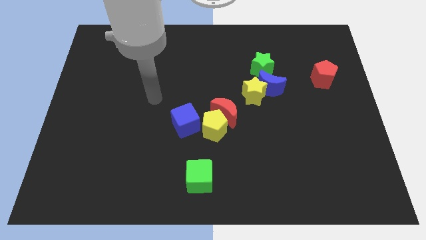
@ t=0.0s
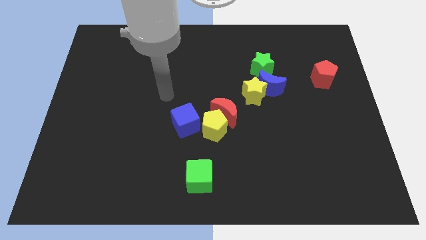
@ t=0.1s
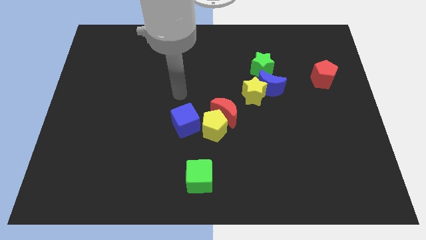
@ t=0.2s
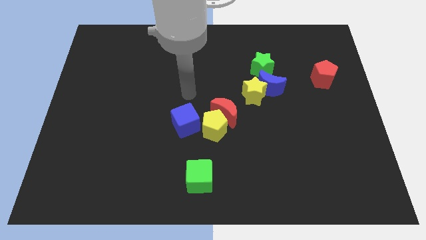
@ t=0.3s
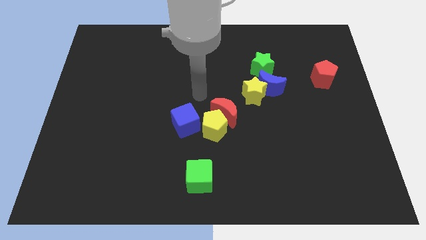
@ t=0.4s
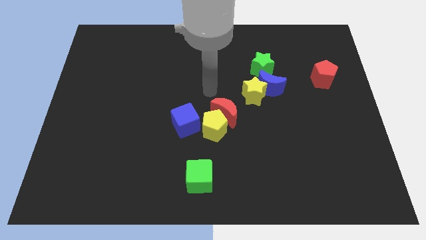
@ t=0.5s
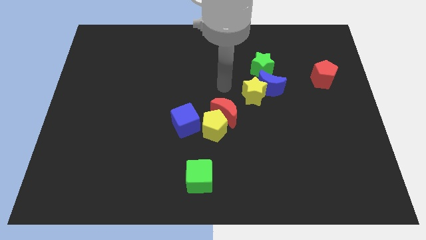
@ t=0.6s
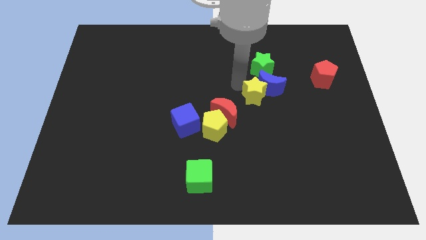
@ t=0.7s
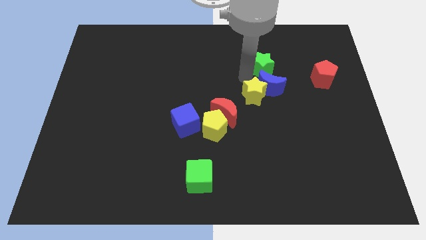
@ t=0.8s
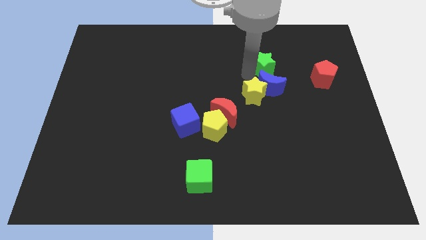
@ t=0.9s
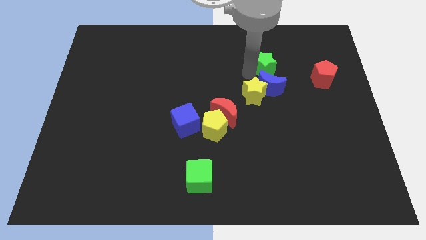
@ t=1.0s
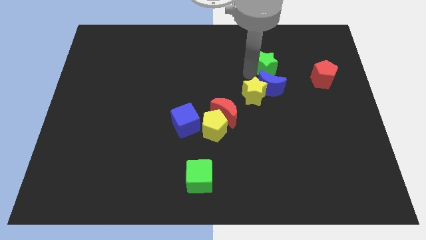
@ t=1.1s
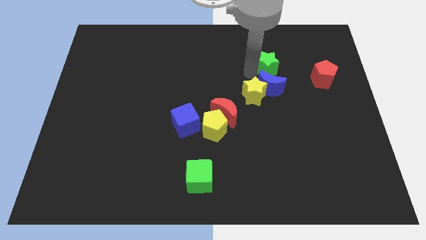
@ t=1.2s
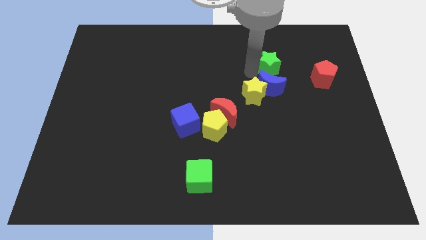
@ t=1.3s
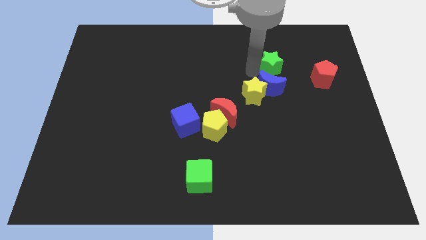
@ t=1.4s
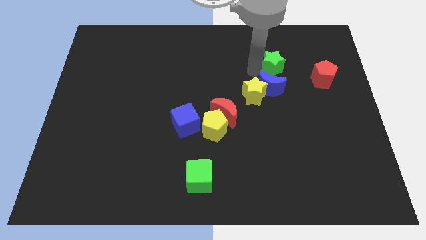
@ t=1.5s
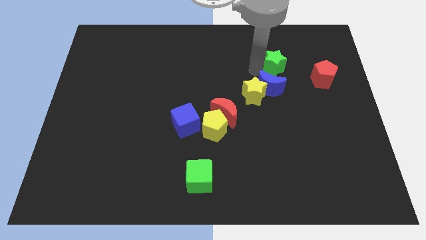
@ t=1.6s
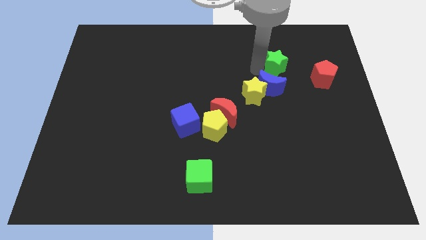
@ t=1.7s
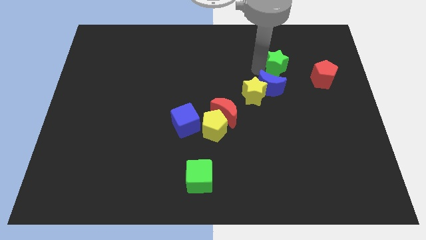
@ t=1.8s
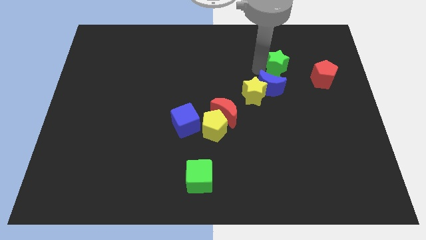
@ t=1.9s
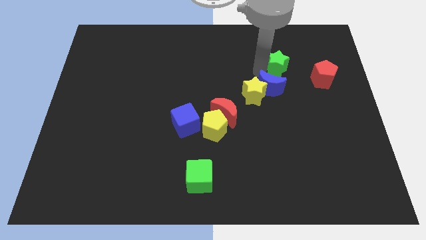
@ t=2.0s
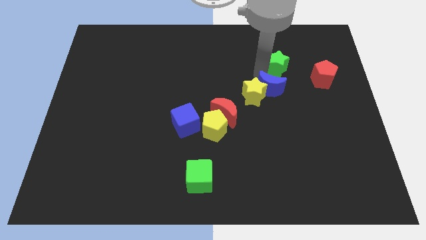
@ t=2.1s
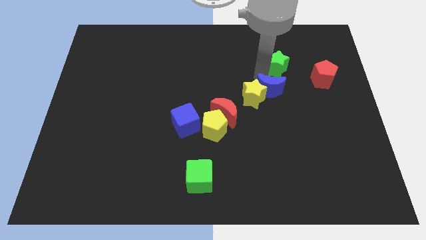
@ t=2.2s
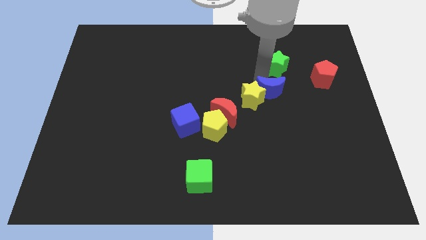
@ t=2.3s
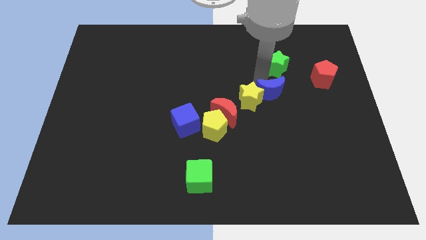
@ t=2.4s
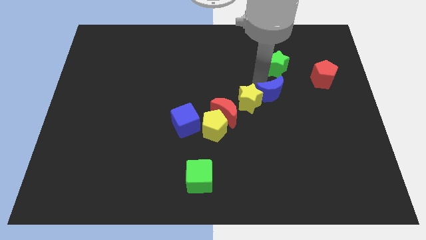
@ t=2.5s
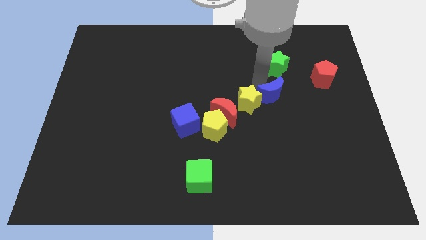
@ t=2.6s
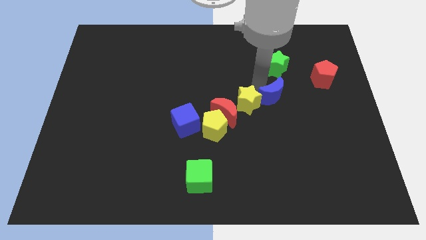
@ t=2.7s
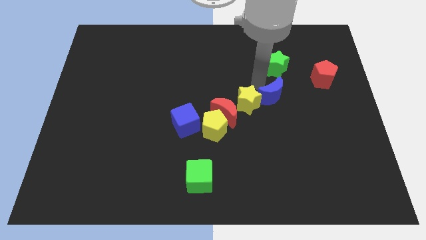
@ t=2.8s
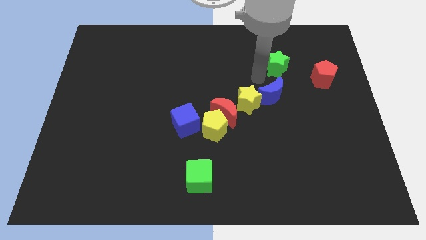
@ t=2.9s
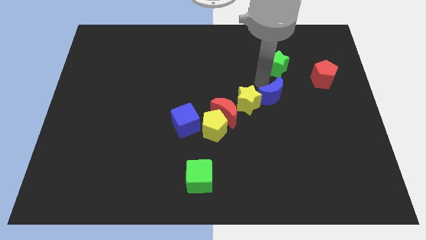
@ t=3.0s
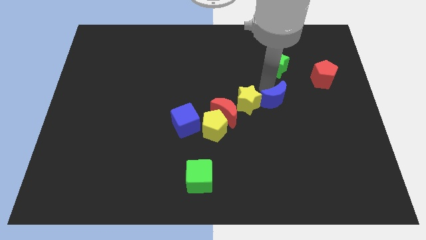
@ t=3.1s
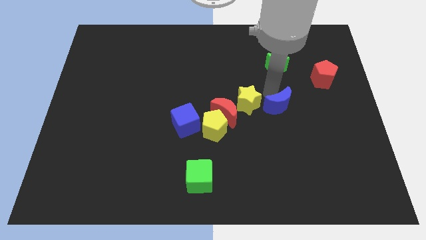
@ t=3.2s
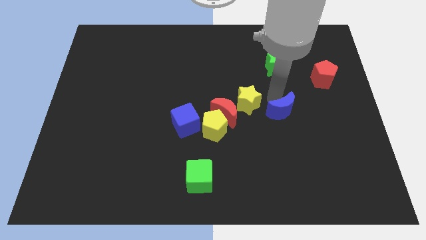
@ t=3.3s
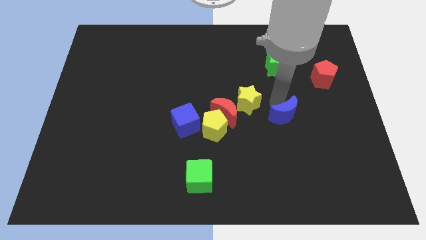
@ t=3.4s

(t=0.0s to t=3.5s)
move the blue moon away from the yellow star and green star

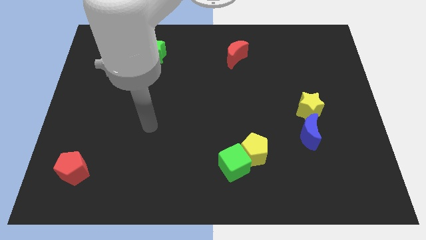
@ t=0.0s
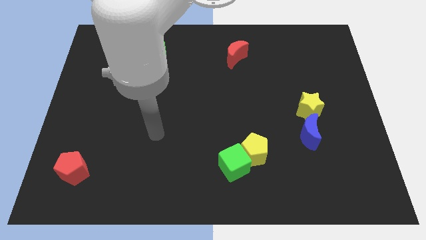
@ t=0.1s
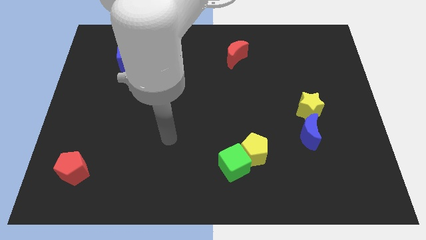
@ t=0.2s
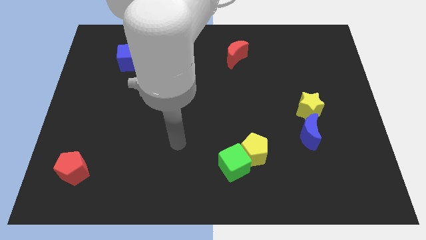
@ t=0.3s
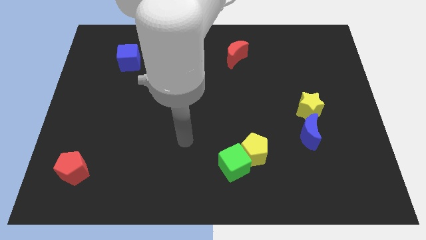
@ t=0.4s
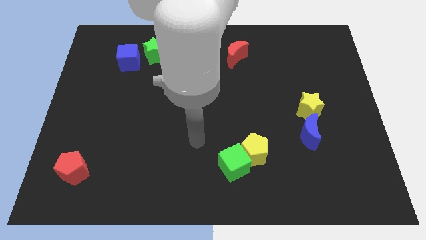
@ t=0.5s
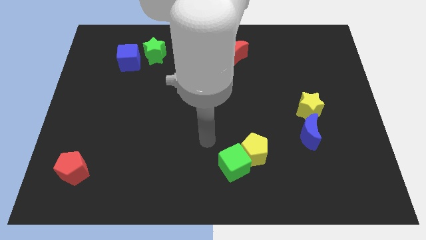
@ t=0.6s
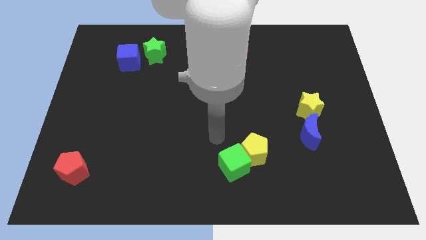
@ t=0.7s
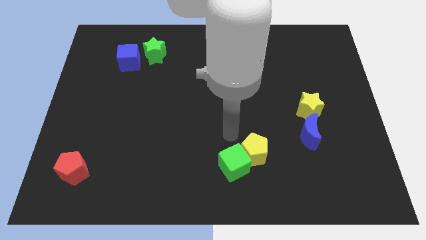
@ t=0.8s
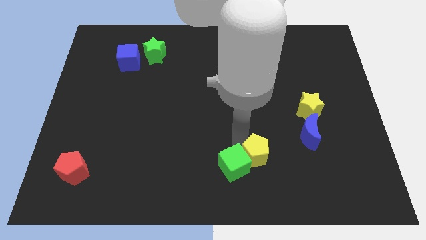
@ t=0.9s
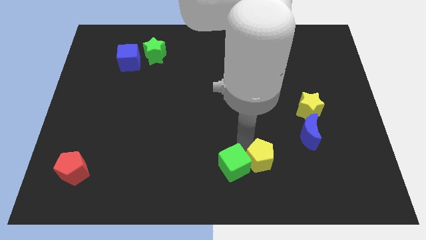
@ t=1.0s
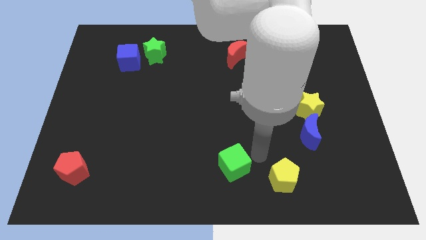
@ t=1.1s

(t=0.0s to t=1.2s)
separate the green cube from the yellow pentagon

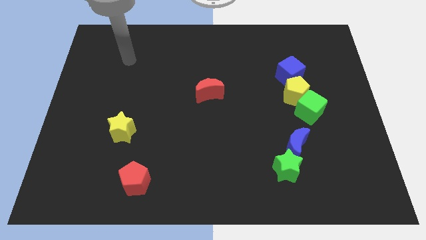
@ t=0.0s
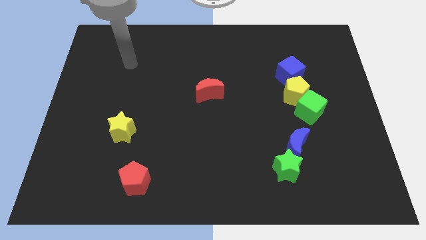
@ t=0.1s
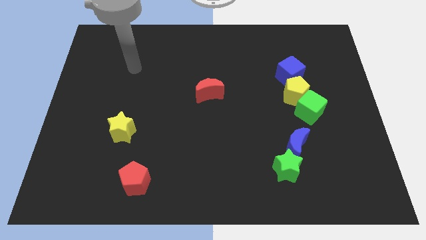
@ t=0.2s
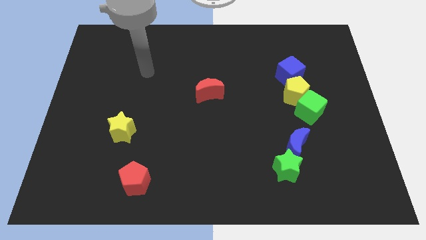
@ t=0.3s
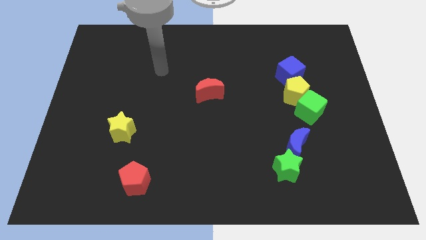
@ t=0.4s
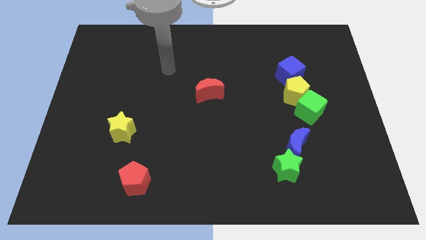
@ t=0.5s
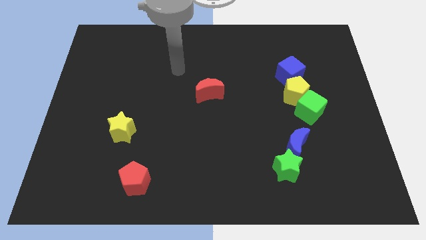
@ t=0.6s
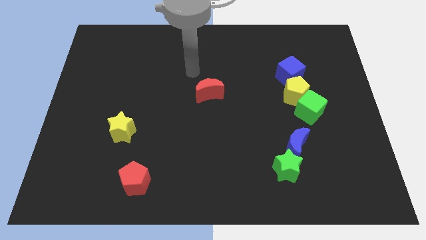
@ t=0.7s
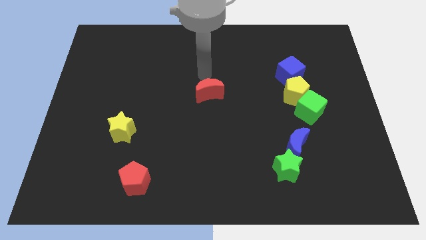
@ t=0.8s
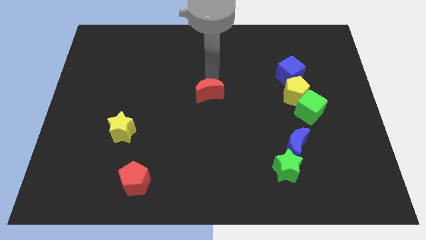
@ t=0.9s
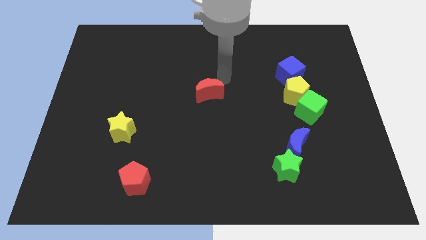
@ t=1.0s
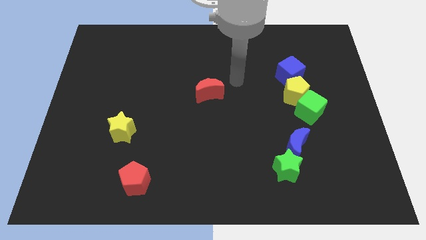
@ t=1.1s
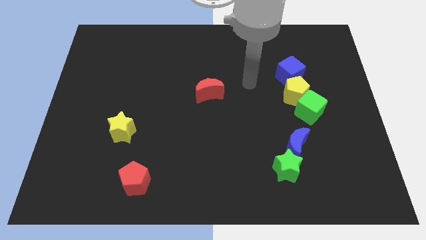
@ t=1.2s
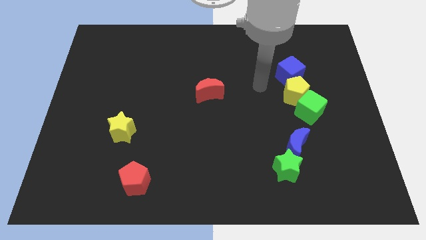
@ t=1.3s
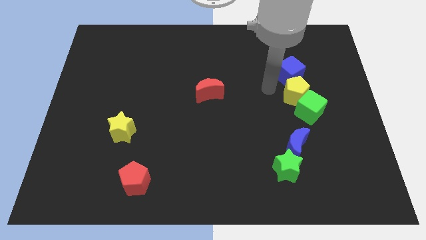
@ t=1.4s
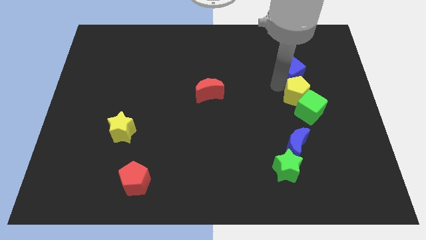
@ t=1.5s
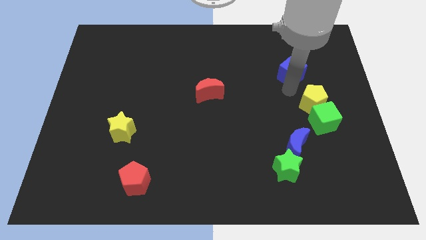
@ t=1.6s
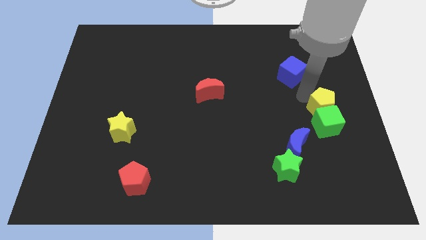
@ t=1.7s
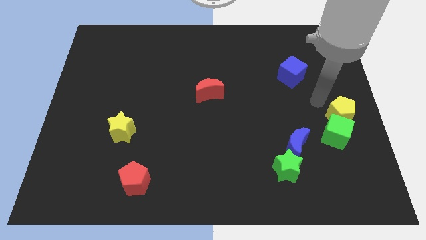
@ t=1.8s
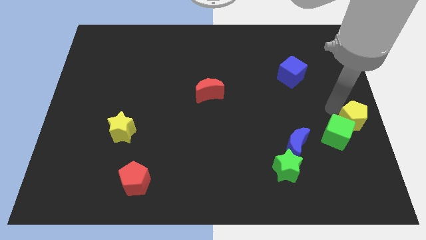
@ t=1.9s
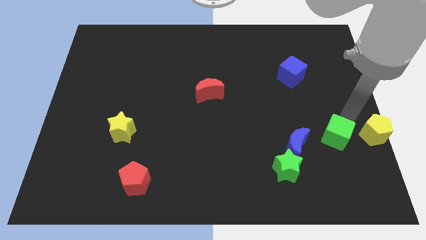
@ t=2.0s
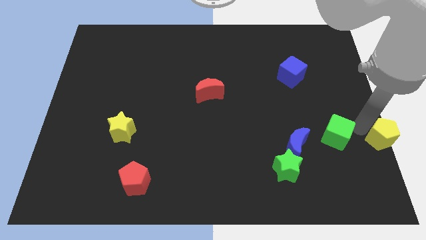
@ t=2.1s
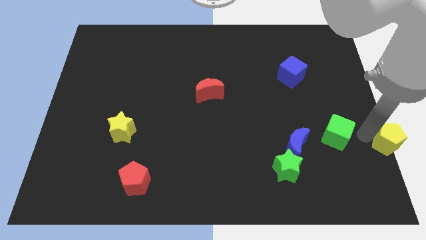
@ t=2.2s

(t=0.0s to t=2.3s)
move the green cube away from the yellow pentagon

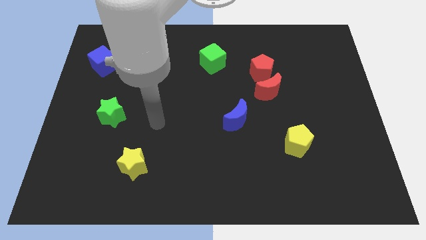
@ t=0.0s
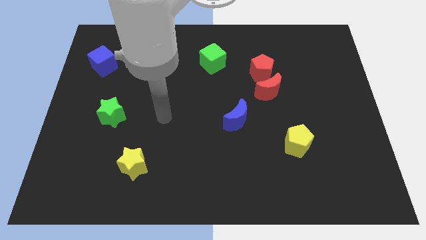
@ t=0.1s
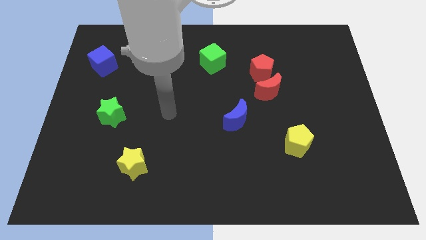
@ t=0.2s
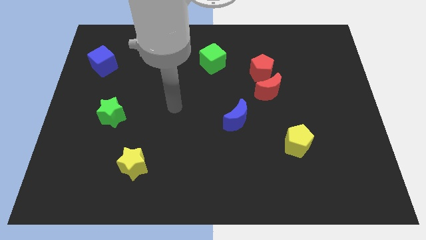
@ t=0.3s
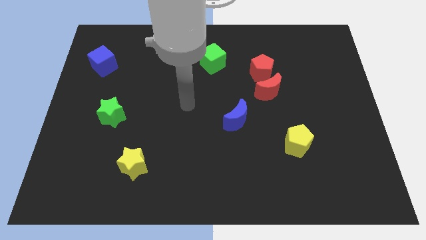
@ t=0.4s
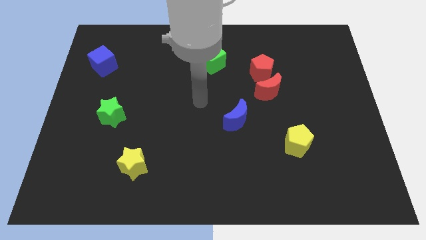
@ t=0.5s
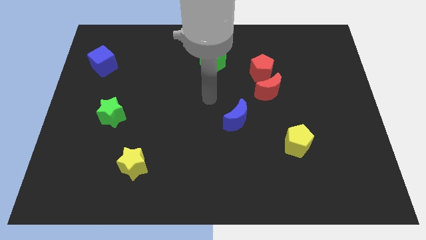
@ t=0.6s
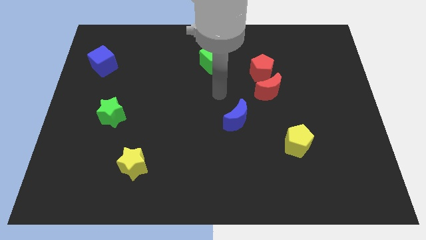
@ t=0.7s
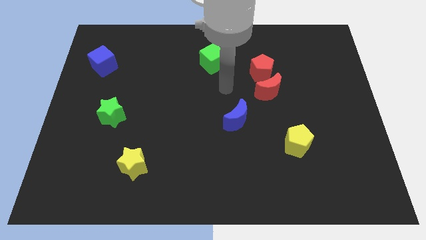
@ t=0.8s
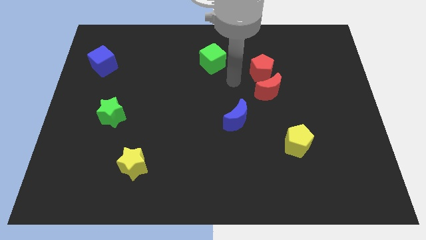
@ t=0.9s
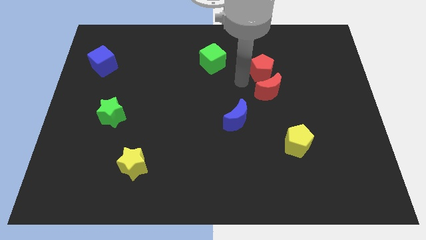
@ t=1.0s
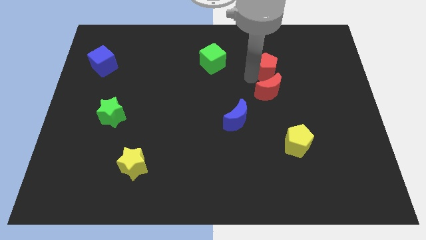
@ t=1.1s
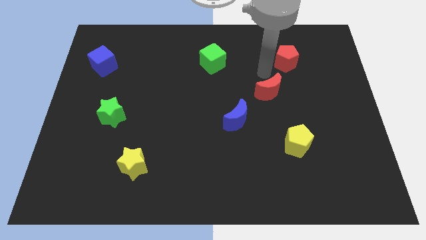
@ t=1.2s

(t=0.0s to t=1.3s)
pull the red moon apart from the red pentagon

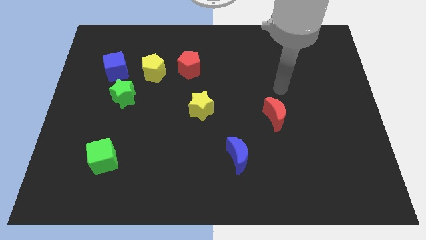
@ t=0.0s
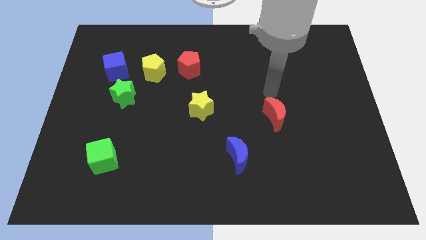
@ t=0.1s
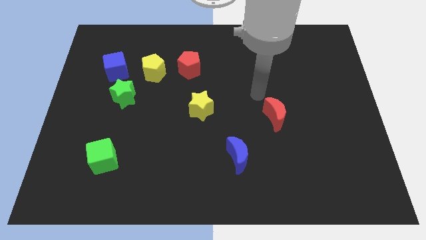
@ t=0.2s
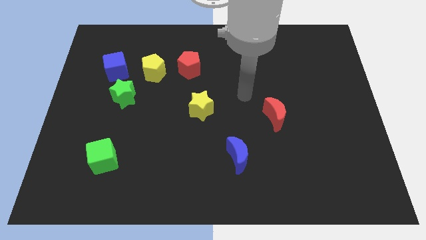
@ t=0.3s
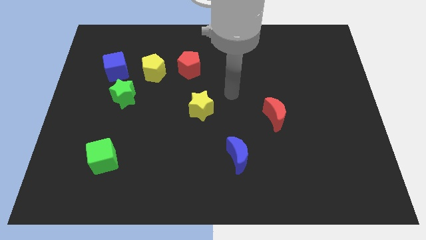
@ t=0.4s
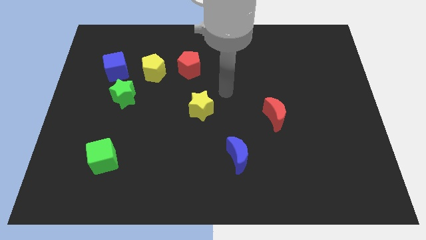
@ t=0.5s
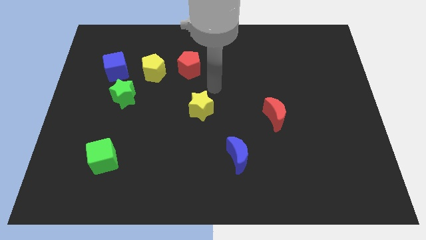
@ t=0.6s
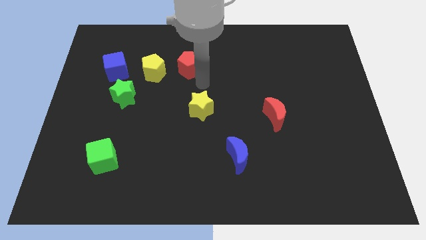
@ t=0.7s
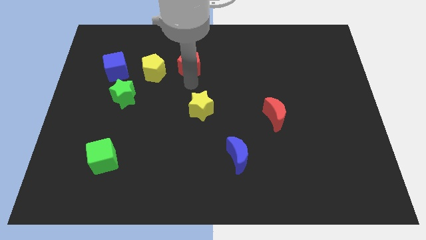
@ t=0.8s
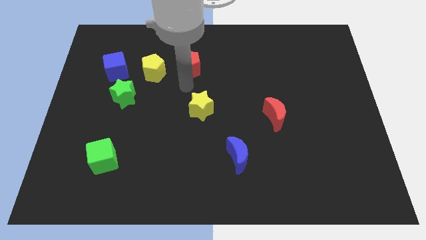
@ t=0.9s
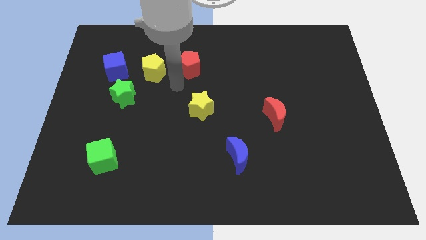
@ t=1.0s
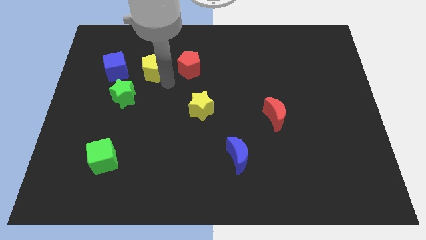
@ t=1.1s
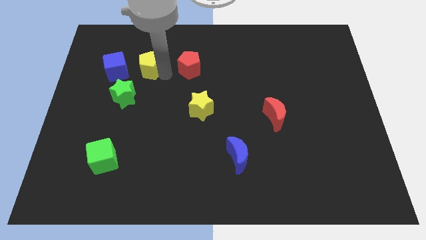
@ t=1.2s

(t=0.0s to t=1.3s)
move the red pentagon away from the yellow pentagon
